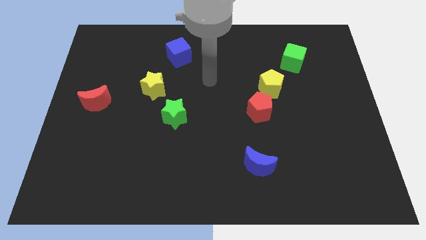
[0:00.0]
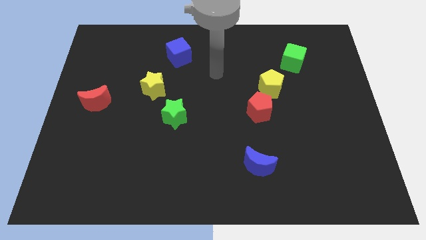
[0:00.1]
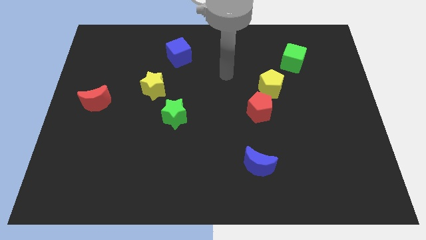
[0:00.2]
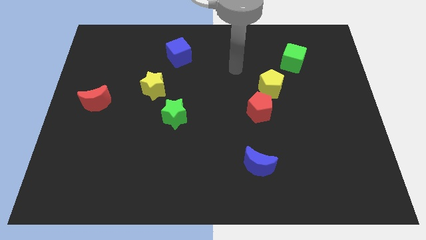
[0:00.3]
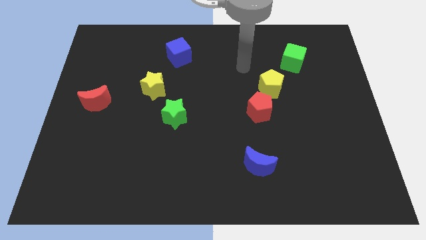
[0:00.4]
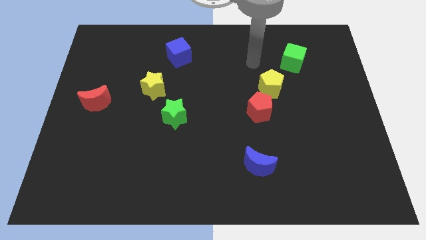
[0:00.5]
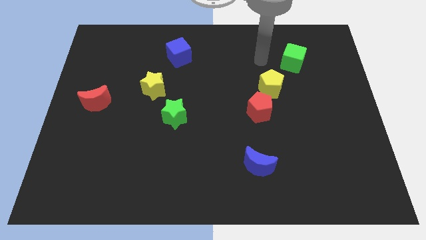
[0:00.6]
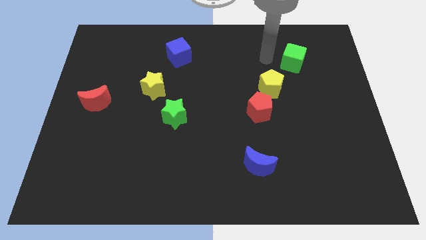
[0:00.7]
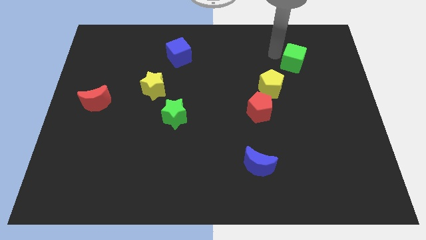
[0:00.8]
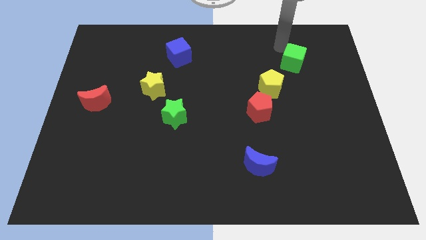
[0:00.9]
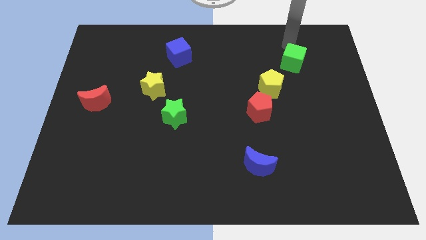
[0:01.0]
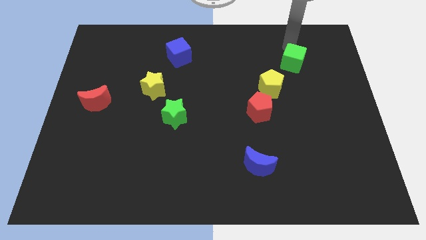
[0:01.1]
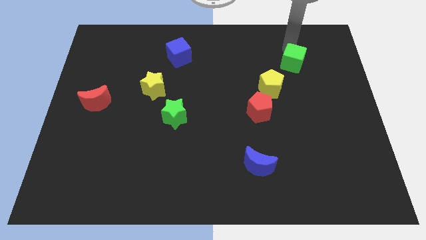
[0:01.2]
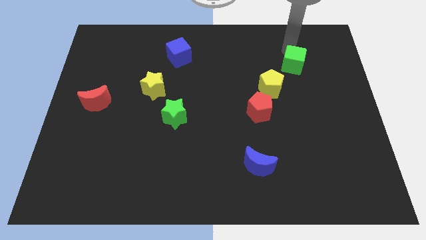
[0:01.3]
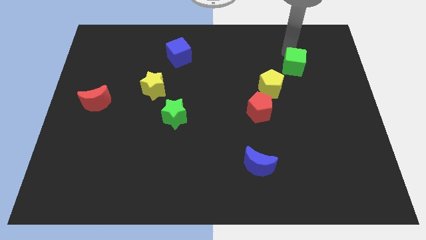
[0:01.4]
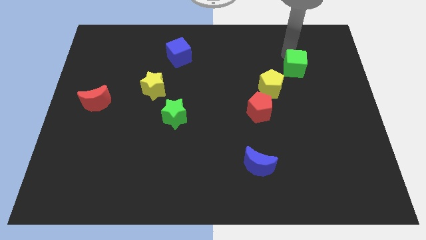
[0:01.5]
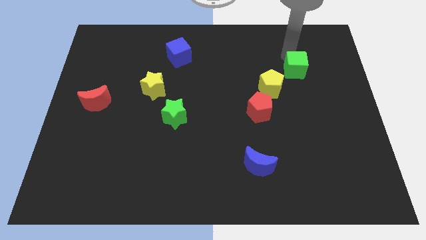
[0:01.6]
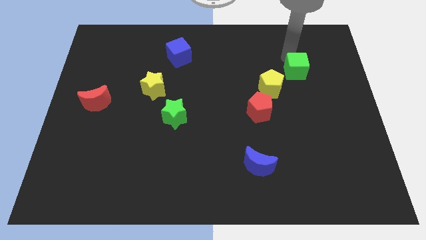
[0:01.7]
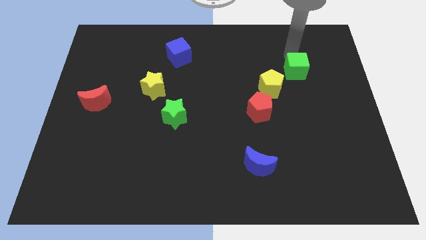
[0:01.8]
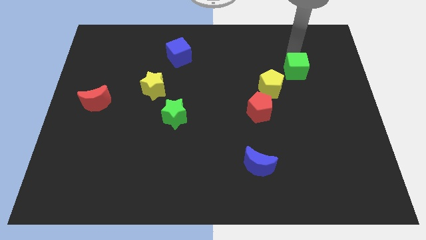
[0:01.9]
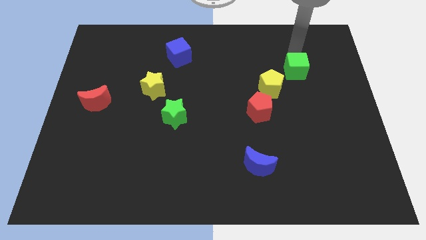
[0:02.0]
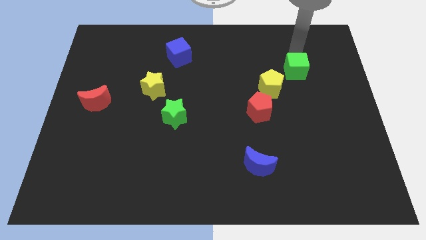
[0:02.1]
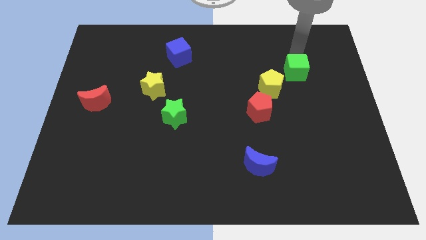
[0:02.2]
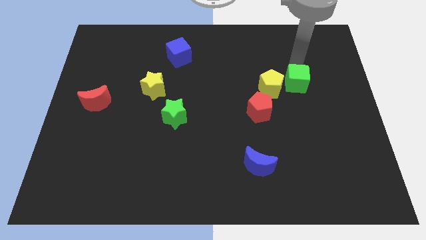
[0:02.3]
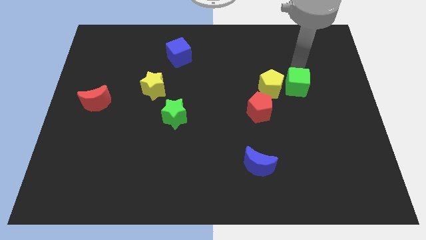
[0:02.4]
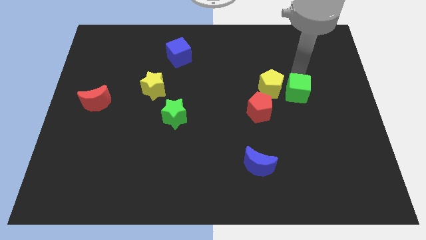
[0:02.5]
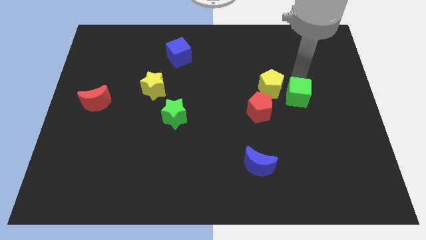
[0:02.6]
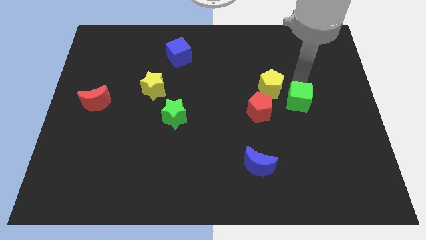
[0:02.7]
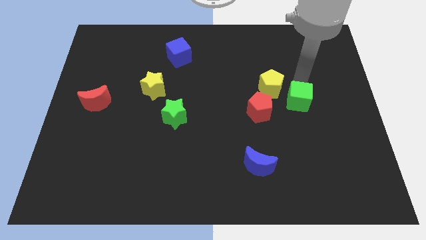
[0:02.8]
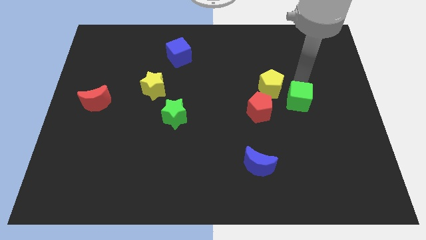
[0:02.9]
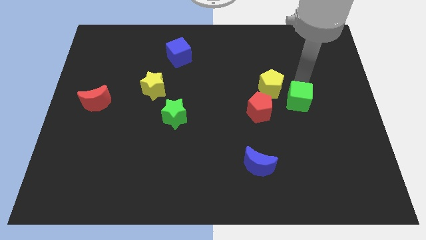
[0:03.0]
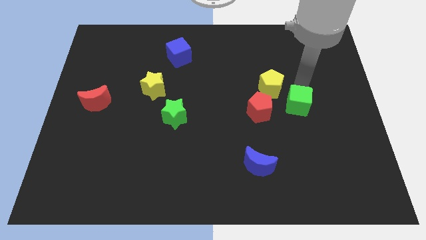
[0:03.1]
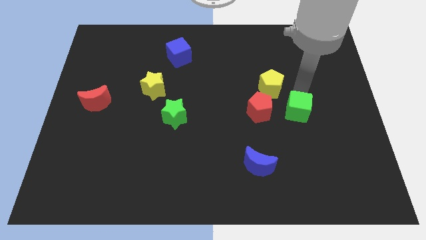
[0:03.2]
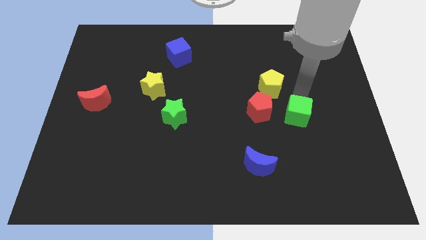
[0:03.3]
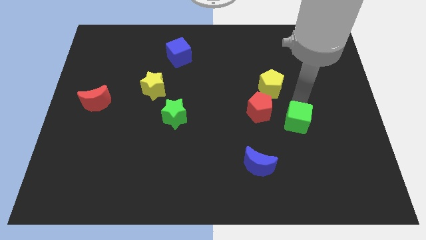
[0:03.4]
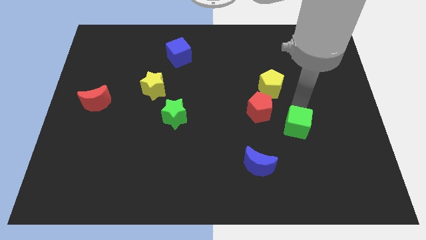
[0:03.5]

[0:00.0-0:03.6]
push the green cube down

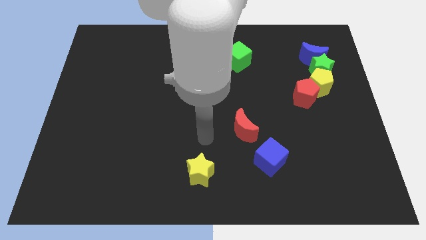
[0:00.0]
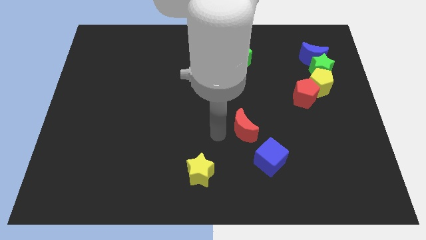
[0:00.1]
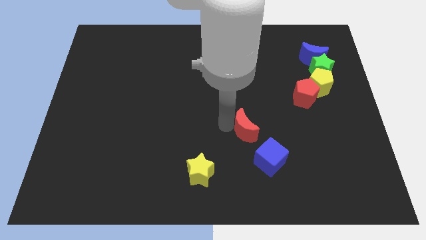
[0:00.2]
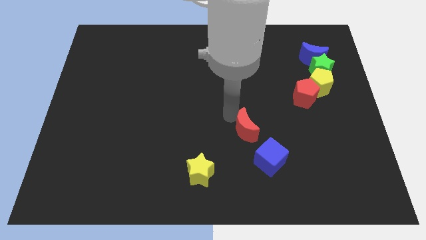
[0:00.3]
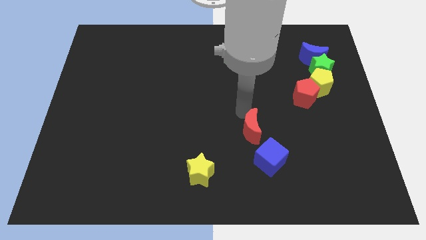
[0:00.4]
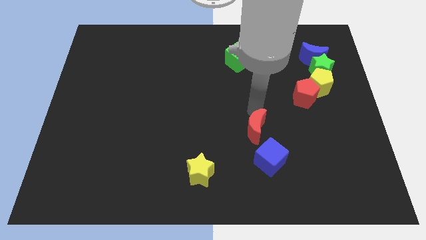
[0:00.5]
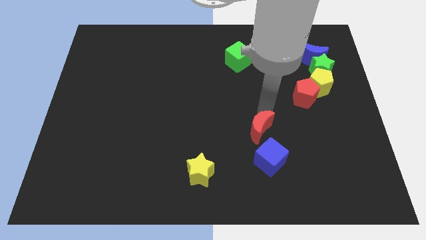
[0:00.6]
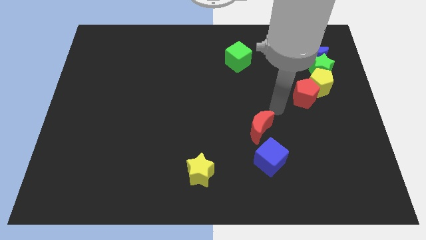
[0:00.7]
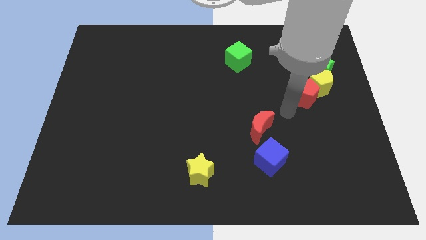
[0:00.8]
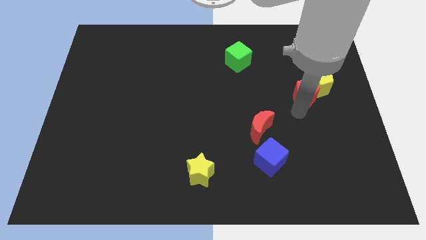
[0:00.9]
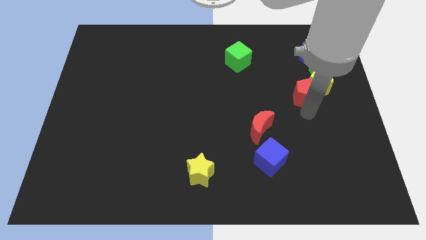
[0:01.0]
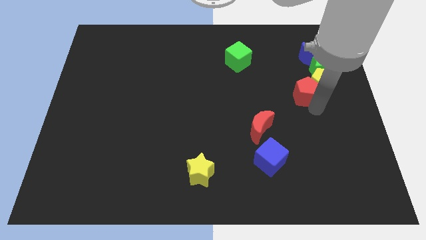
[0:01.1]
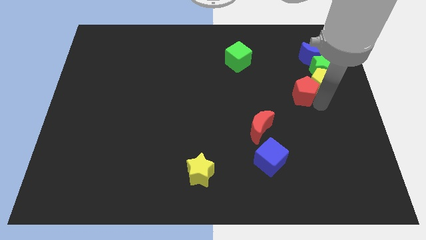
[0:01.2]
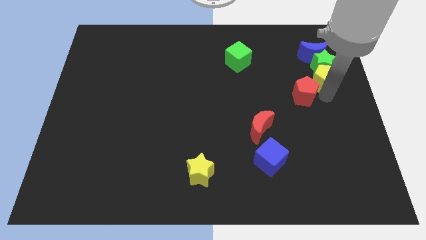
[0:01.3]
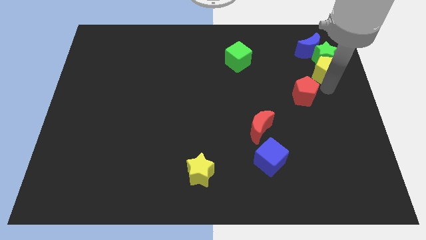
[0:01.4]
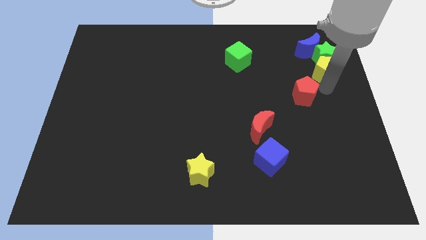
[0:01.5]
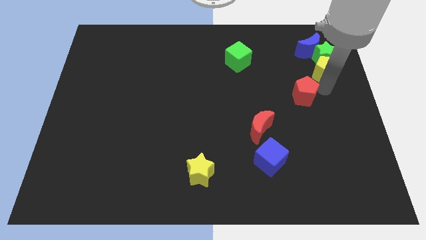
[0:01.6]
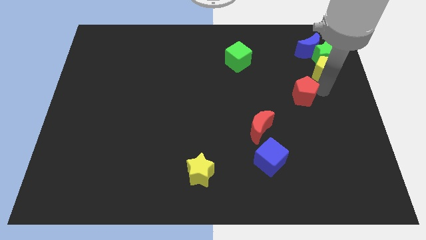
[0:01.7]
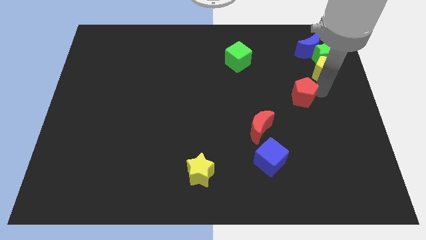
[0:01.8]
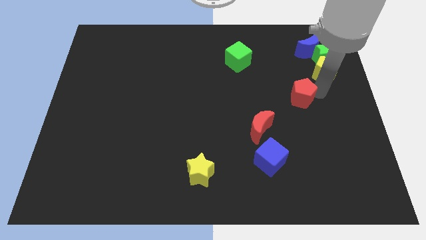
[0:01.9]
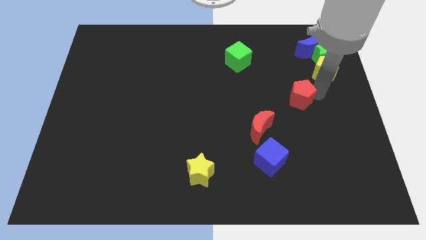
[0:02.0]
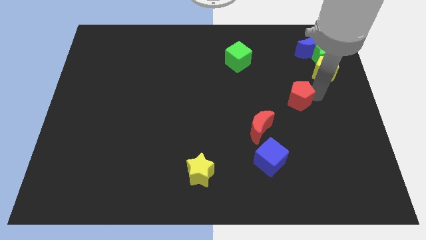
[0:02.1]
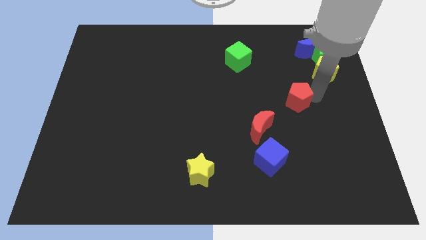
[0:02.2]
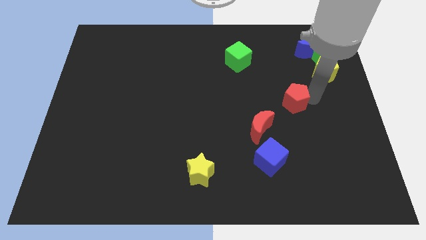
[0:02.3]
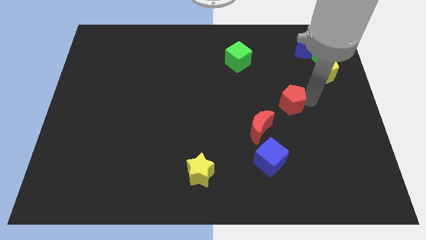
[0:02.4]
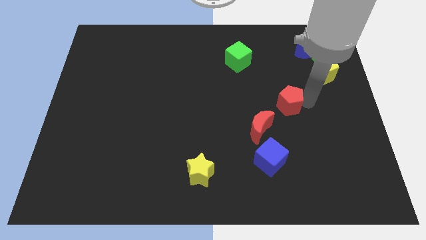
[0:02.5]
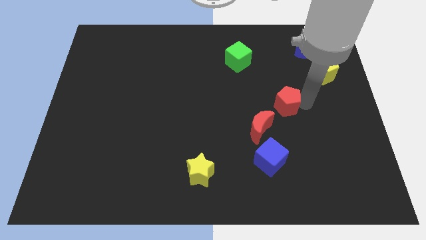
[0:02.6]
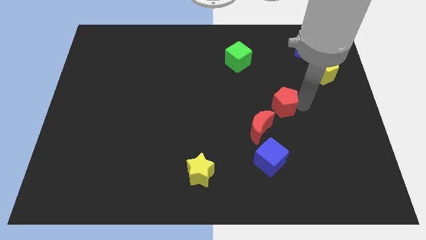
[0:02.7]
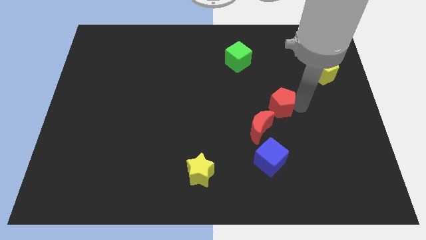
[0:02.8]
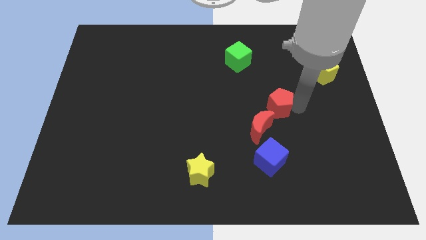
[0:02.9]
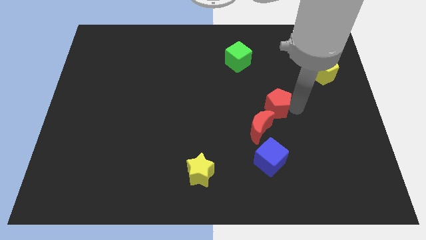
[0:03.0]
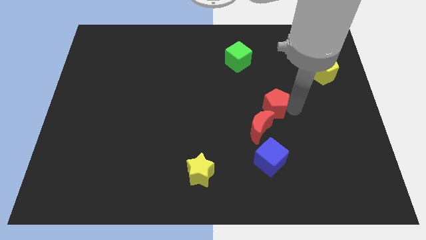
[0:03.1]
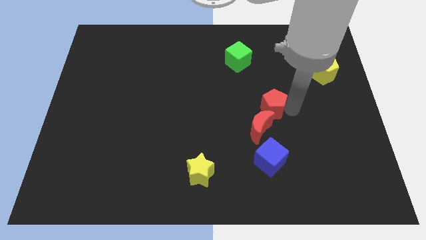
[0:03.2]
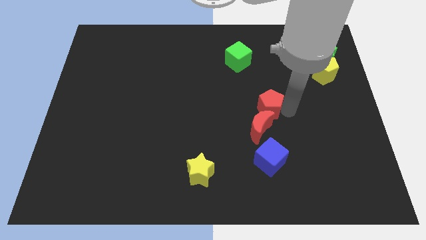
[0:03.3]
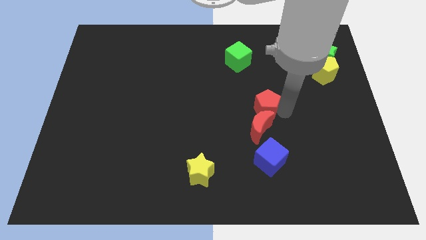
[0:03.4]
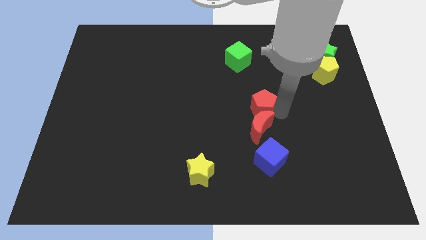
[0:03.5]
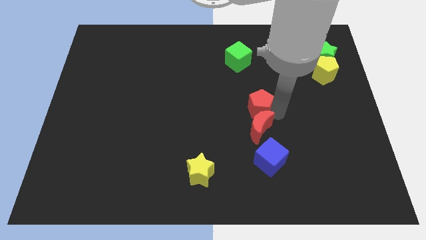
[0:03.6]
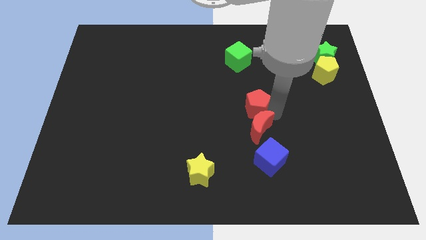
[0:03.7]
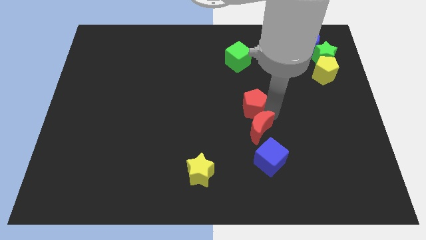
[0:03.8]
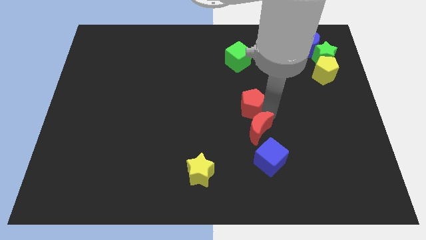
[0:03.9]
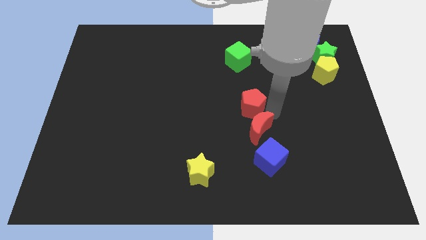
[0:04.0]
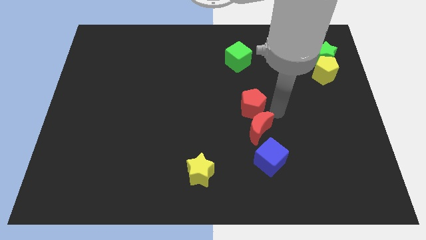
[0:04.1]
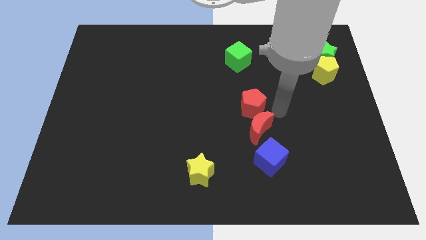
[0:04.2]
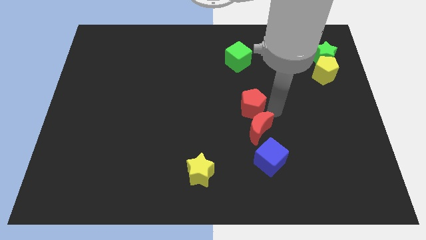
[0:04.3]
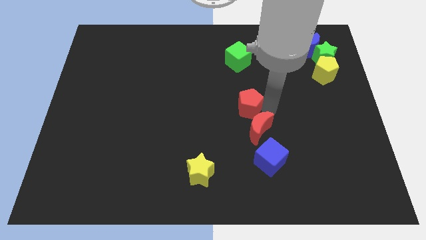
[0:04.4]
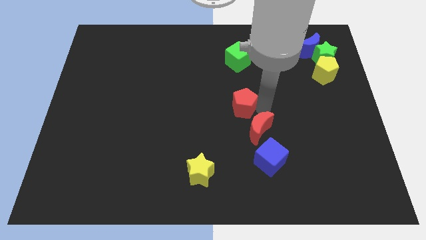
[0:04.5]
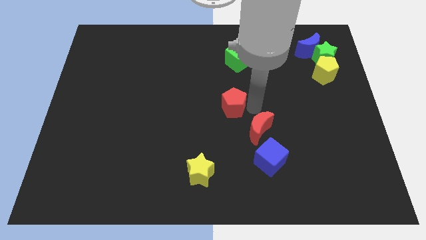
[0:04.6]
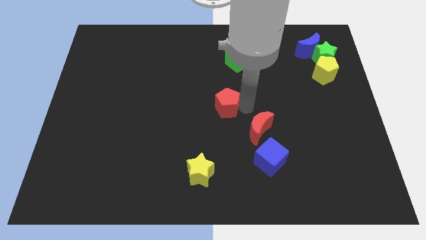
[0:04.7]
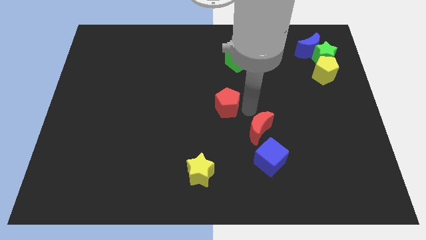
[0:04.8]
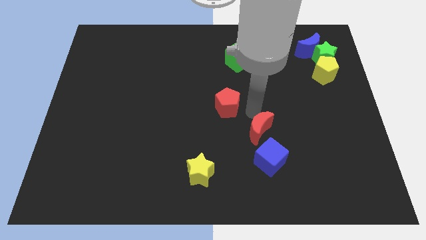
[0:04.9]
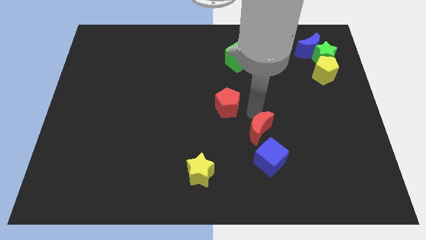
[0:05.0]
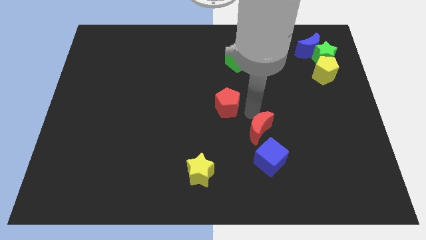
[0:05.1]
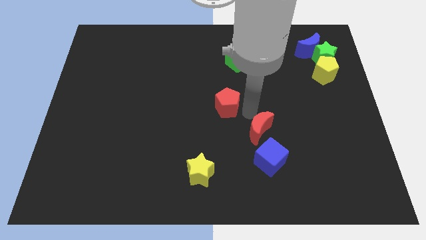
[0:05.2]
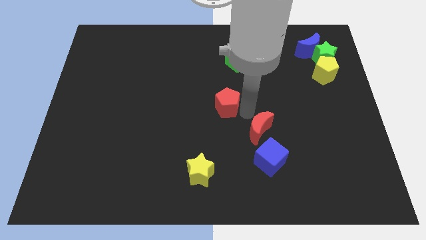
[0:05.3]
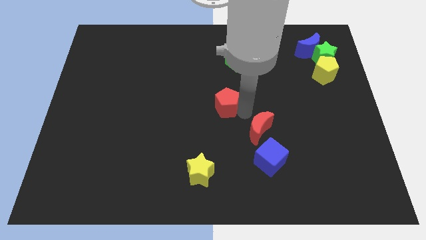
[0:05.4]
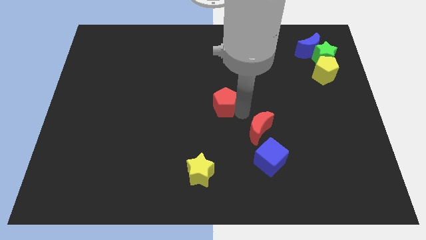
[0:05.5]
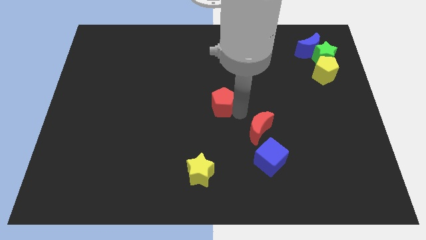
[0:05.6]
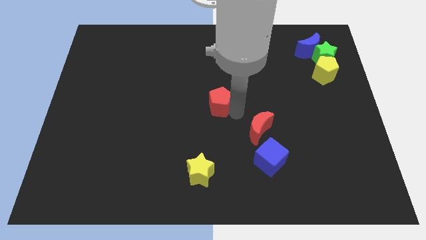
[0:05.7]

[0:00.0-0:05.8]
push the red pentagon to the left
